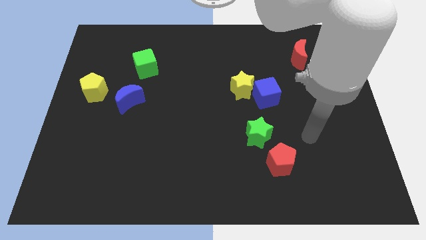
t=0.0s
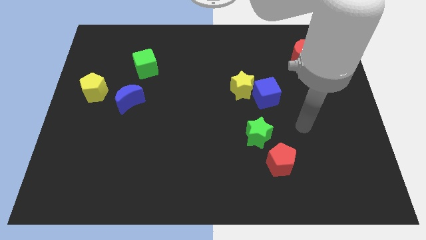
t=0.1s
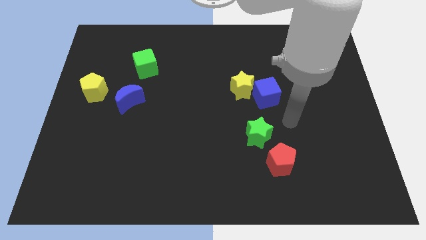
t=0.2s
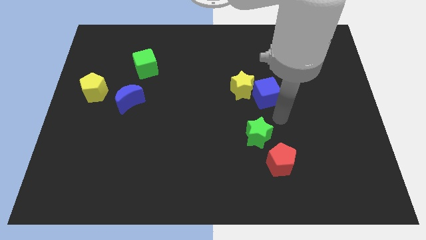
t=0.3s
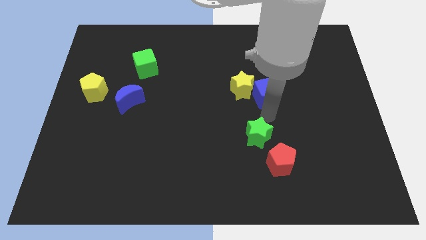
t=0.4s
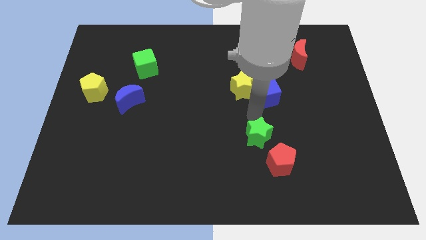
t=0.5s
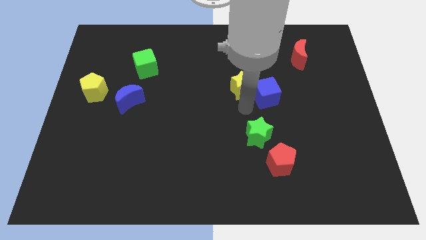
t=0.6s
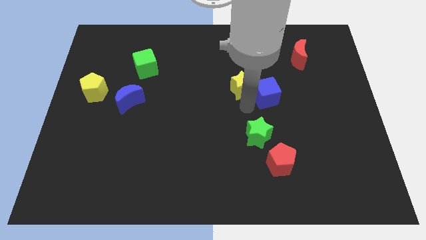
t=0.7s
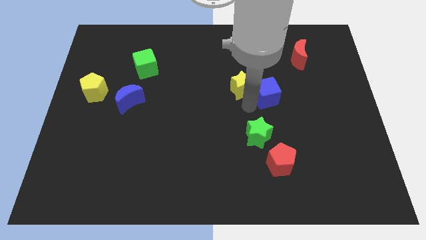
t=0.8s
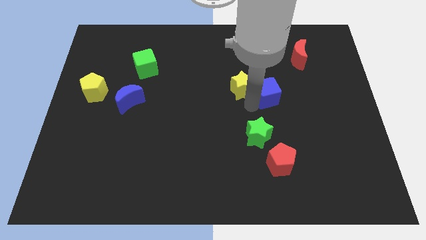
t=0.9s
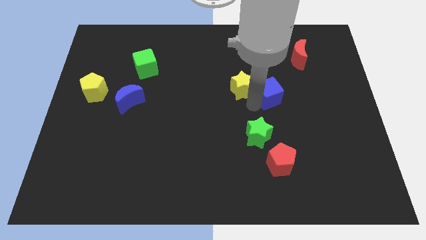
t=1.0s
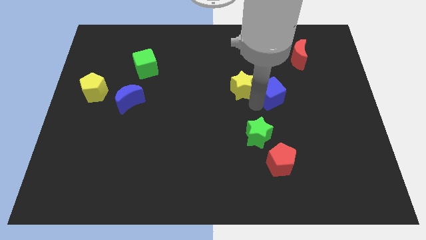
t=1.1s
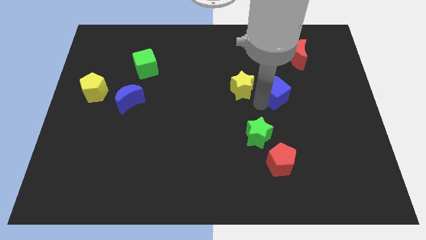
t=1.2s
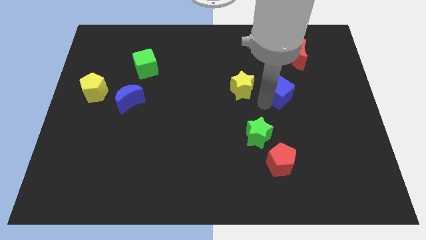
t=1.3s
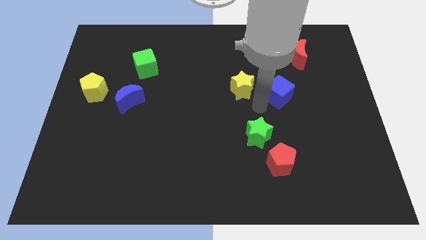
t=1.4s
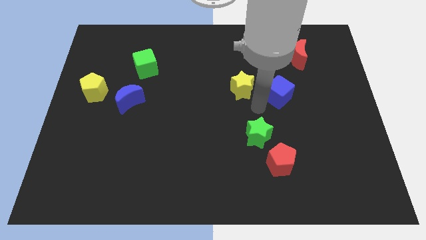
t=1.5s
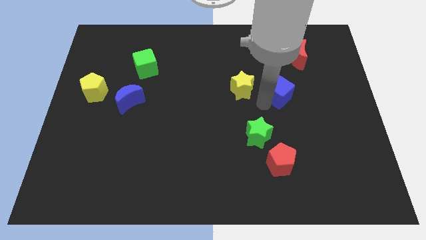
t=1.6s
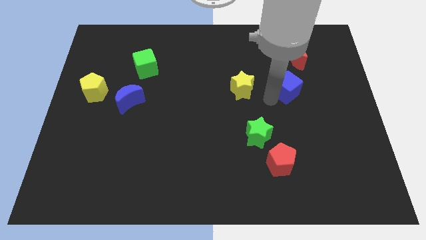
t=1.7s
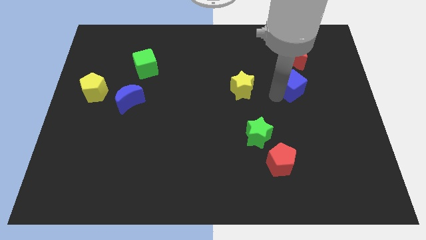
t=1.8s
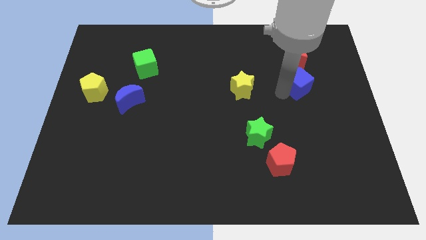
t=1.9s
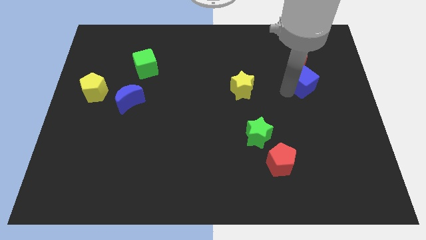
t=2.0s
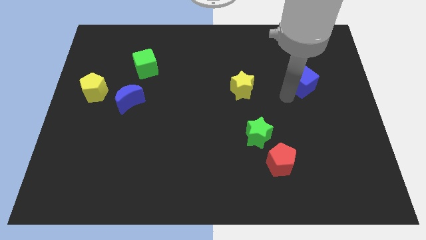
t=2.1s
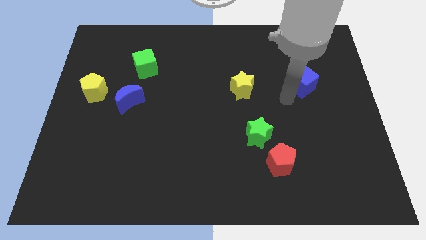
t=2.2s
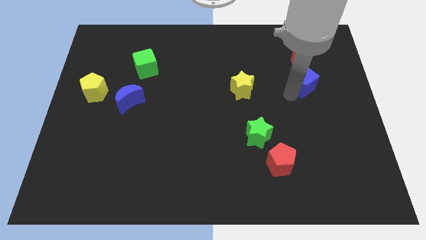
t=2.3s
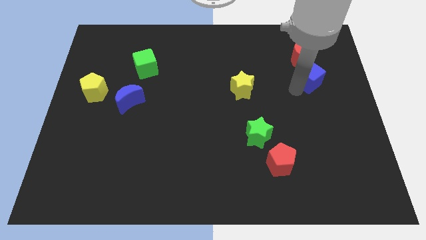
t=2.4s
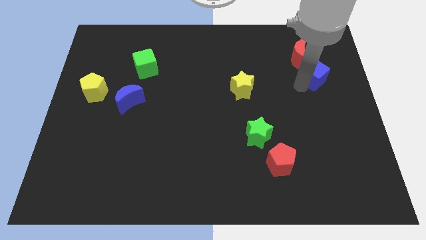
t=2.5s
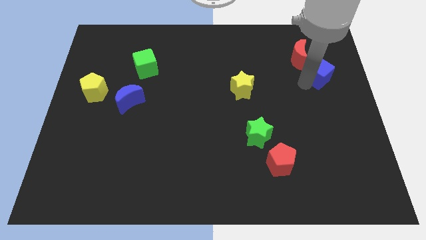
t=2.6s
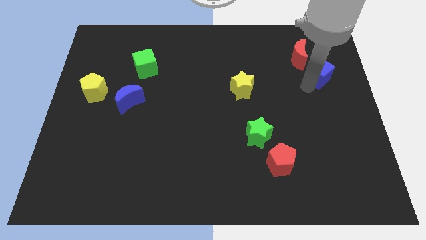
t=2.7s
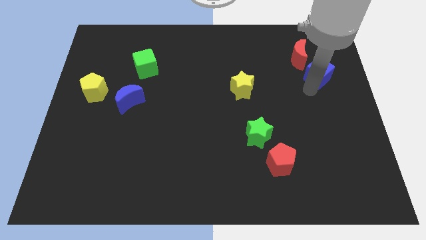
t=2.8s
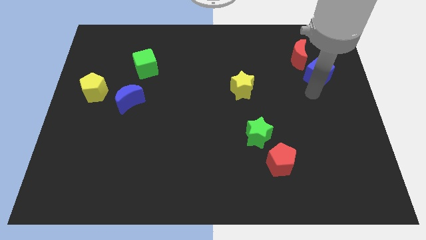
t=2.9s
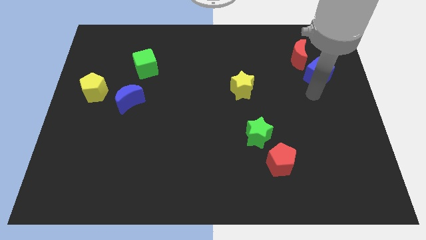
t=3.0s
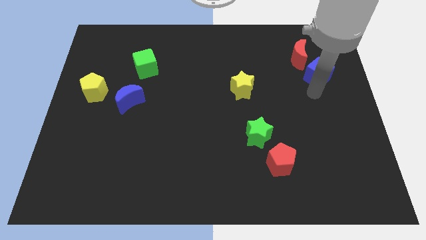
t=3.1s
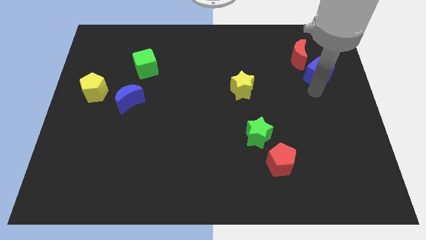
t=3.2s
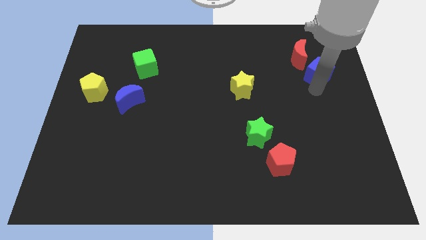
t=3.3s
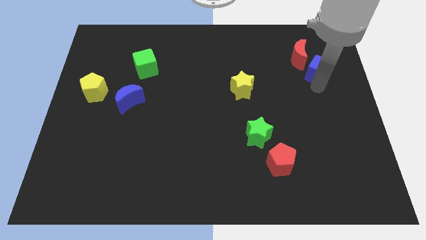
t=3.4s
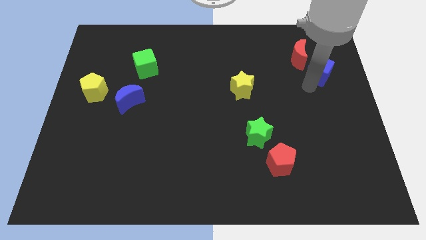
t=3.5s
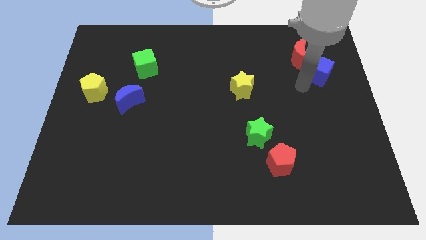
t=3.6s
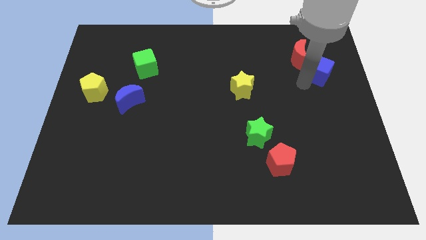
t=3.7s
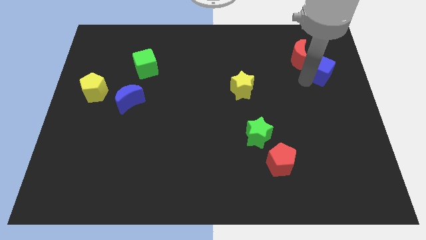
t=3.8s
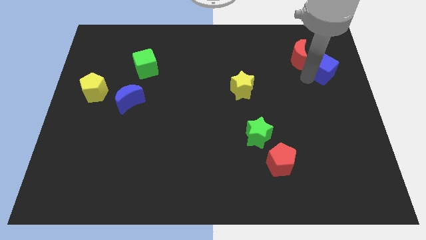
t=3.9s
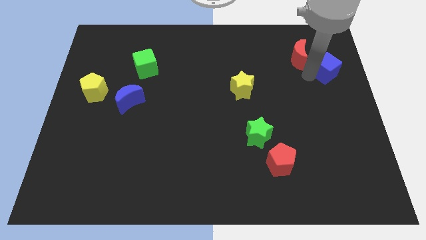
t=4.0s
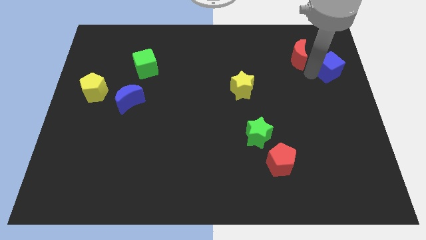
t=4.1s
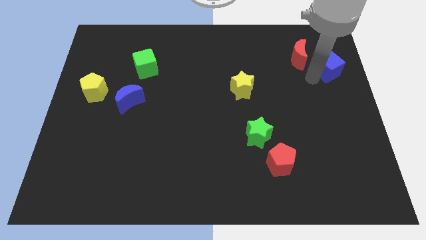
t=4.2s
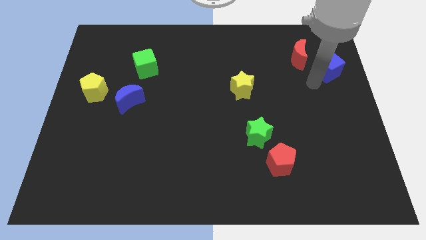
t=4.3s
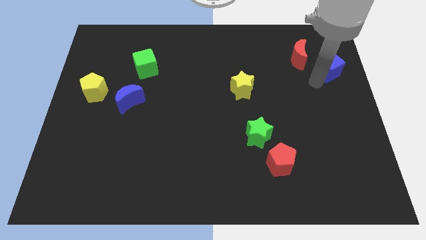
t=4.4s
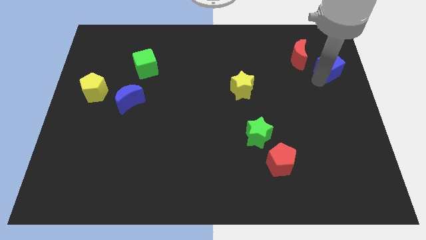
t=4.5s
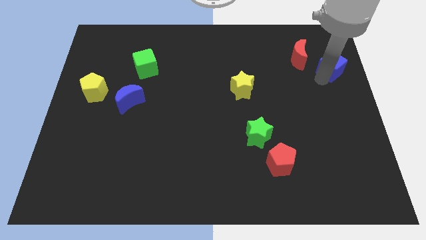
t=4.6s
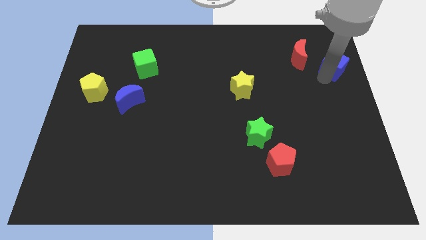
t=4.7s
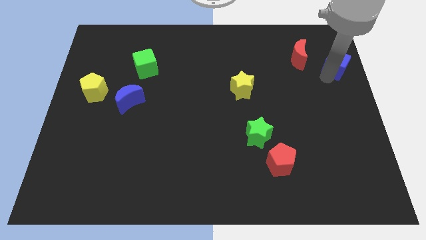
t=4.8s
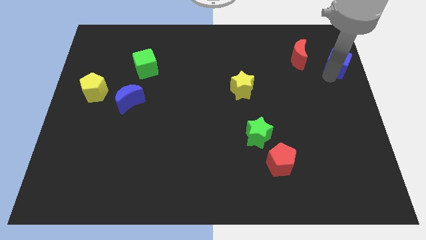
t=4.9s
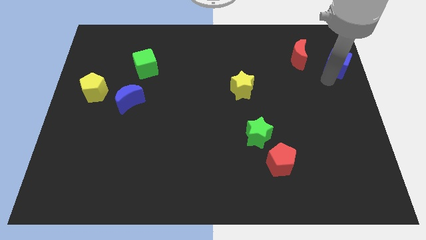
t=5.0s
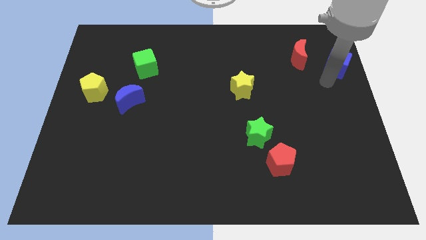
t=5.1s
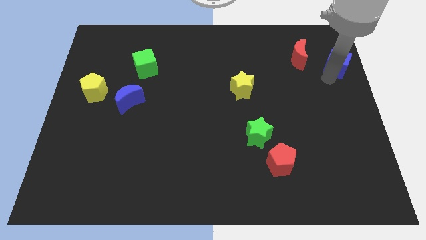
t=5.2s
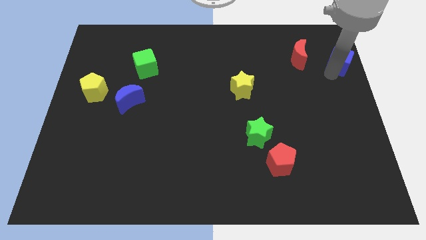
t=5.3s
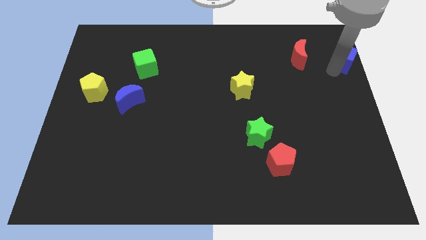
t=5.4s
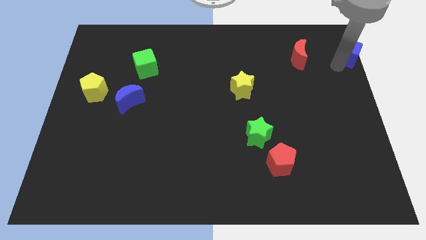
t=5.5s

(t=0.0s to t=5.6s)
push the blue cube to the top right

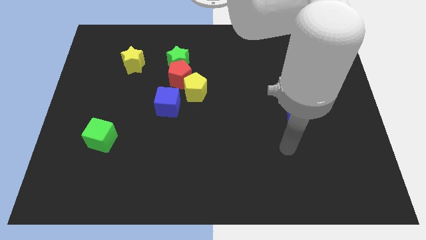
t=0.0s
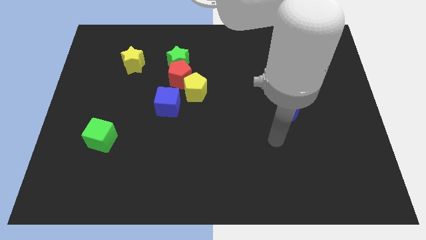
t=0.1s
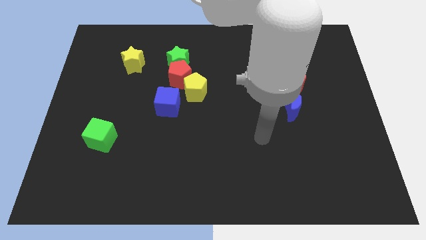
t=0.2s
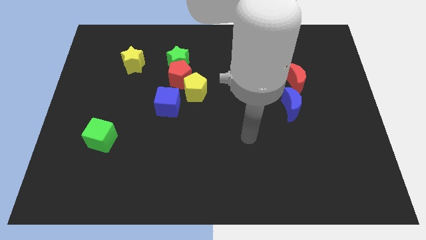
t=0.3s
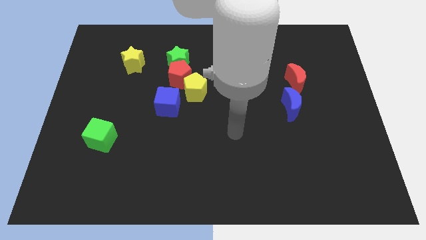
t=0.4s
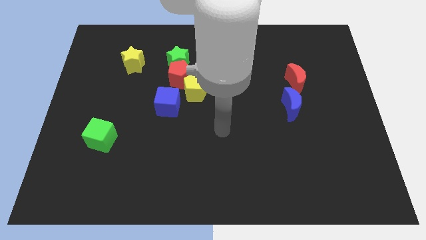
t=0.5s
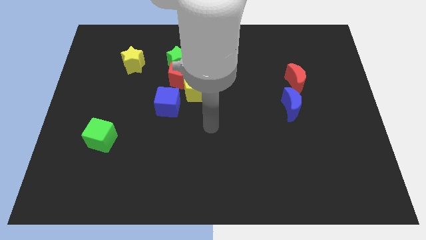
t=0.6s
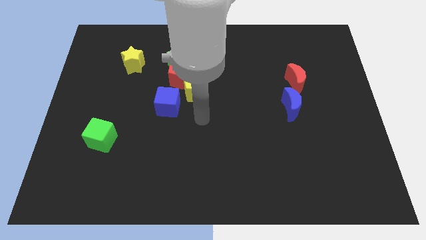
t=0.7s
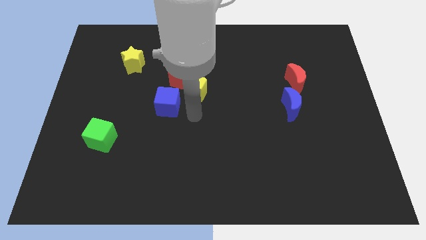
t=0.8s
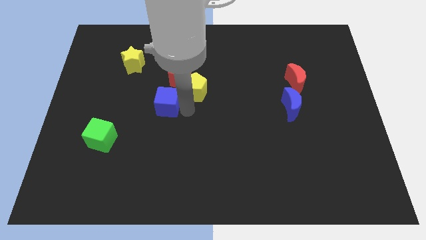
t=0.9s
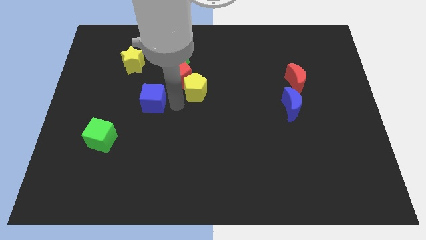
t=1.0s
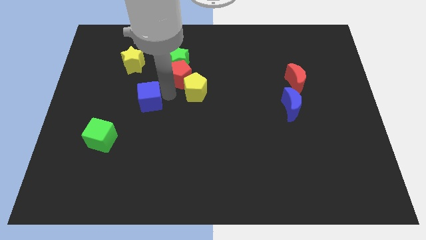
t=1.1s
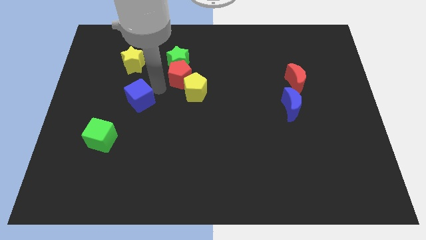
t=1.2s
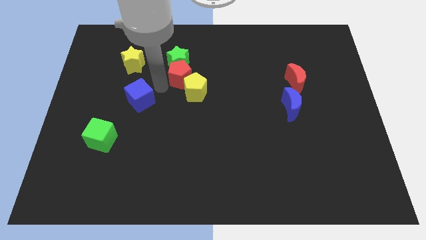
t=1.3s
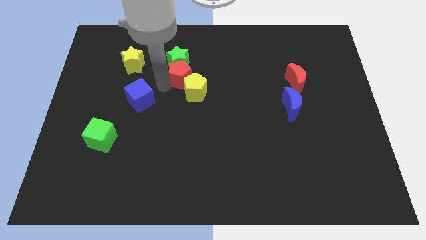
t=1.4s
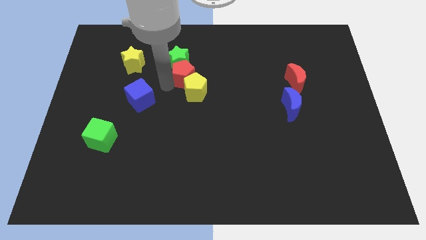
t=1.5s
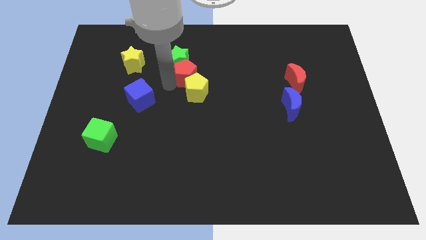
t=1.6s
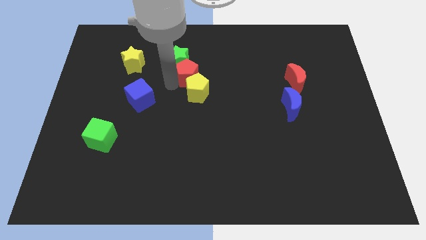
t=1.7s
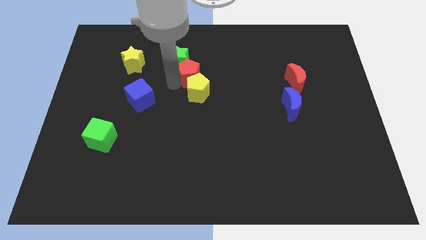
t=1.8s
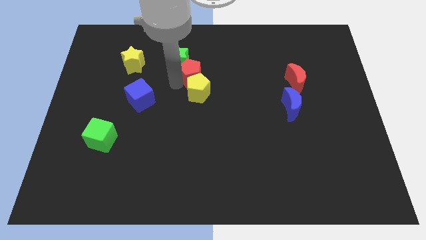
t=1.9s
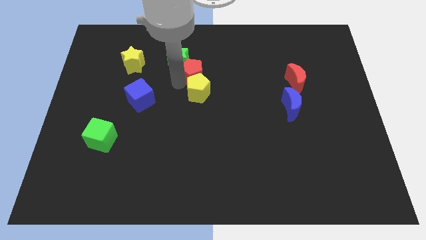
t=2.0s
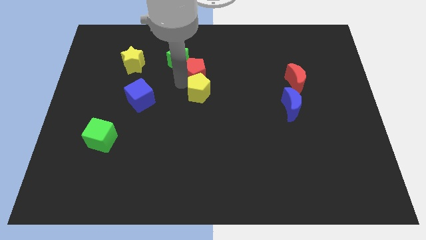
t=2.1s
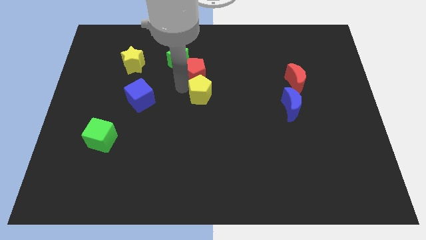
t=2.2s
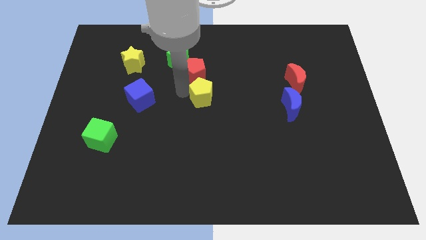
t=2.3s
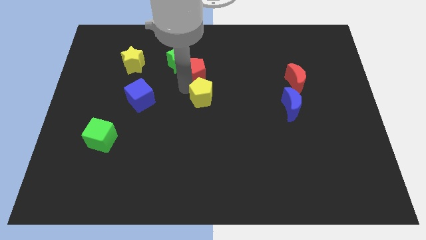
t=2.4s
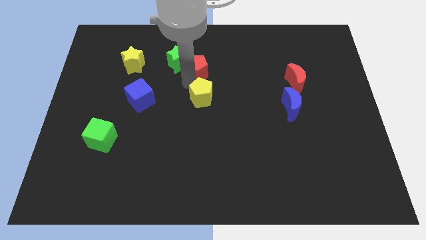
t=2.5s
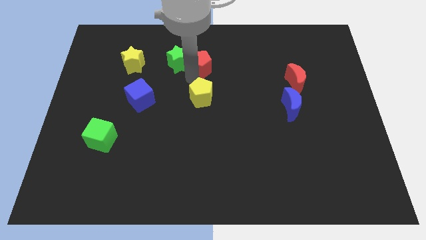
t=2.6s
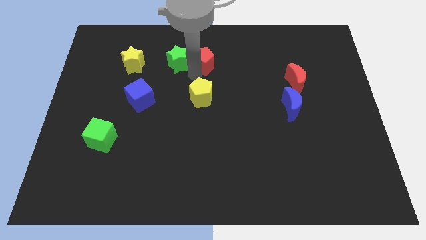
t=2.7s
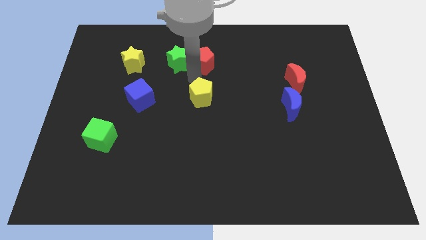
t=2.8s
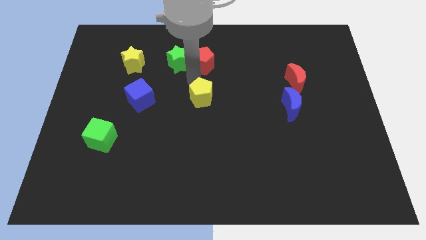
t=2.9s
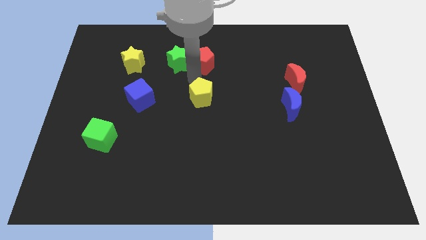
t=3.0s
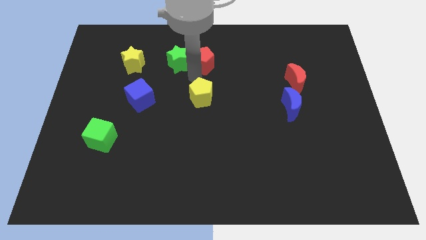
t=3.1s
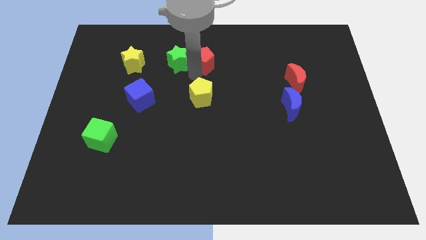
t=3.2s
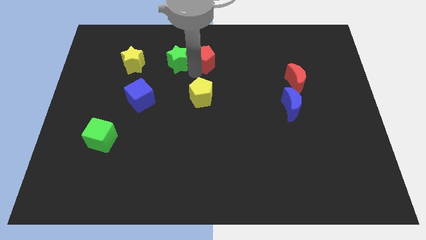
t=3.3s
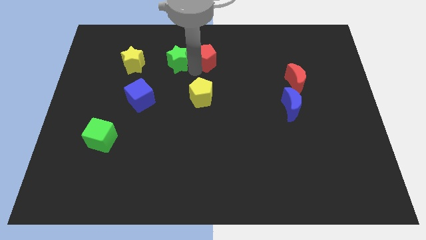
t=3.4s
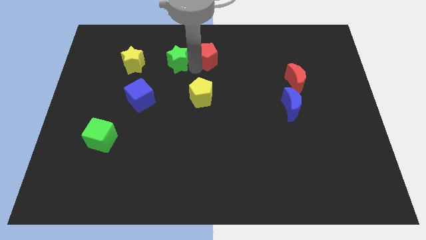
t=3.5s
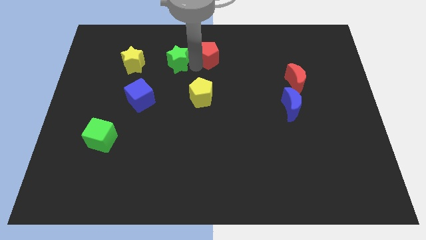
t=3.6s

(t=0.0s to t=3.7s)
slide the red pentagon to the top side
